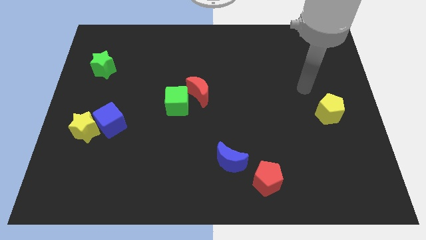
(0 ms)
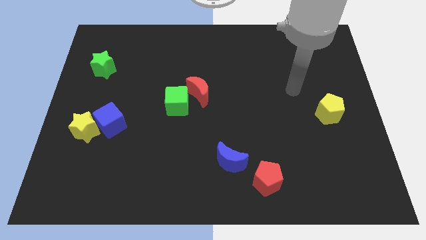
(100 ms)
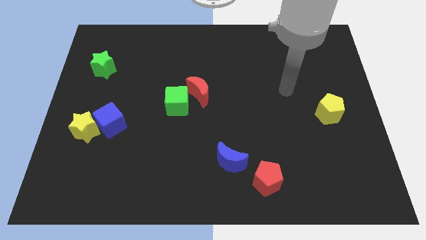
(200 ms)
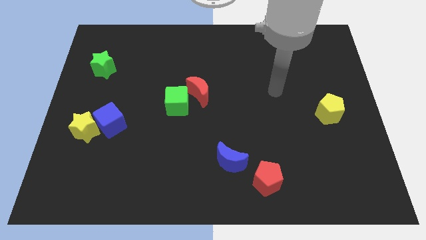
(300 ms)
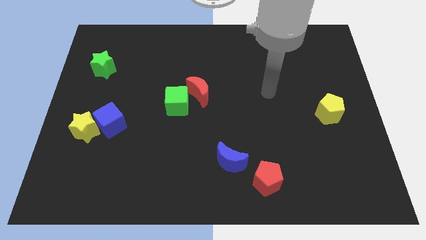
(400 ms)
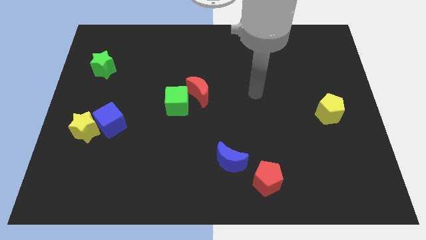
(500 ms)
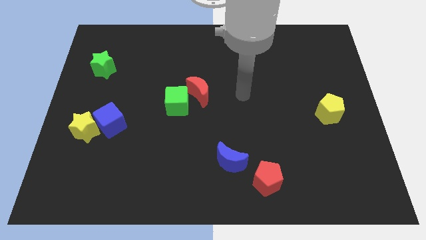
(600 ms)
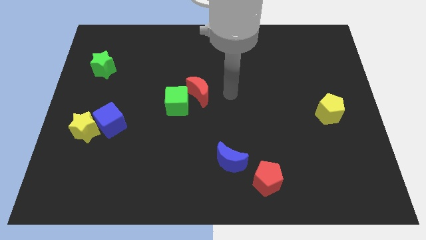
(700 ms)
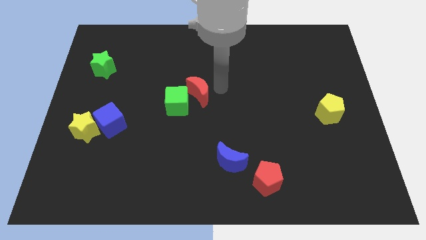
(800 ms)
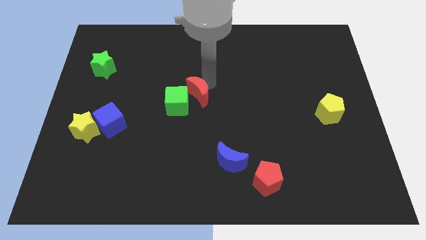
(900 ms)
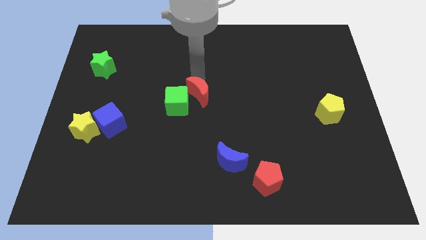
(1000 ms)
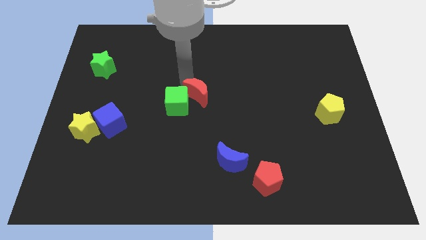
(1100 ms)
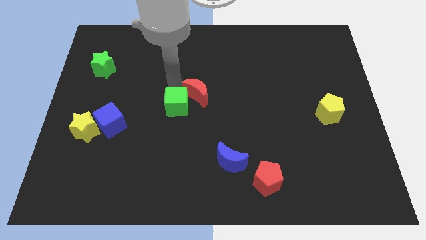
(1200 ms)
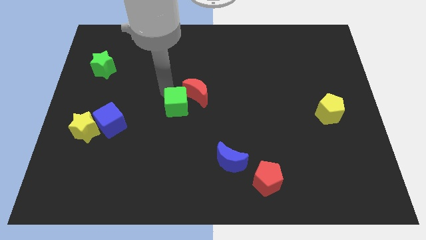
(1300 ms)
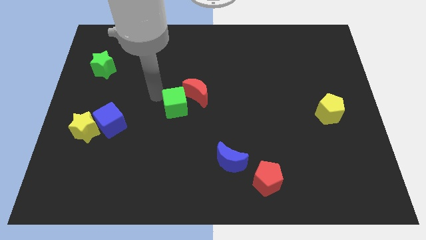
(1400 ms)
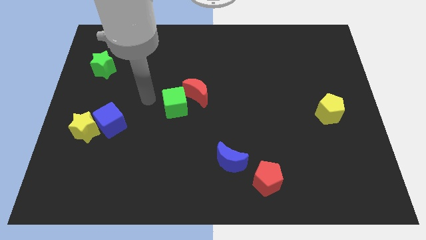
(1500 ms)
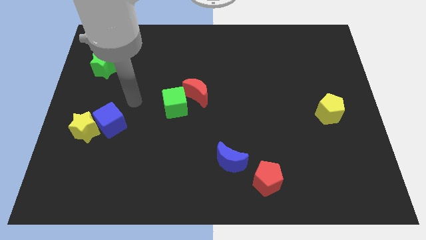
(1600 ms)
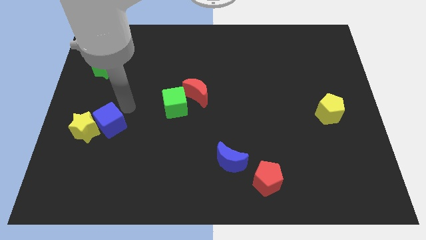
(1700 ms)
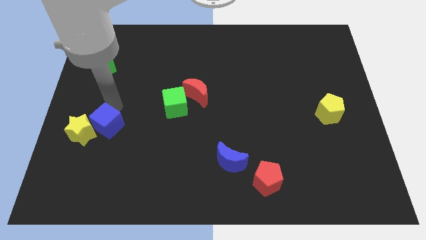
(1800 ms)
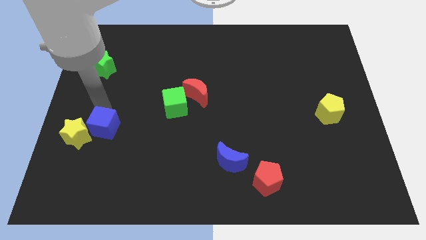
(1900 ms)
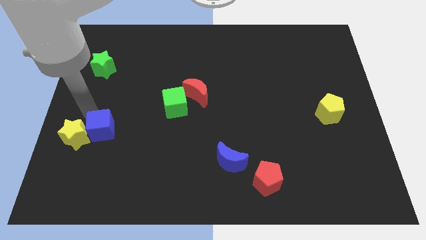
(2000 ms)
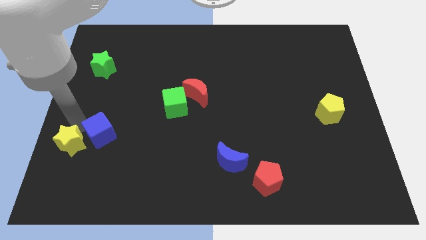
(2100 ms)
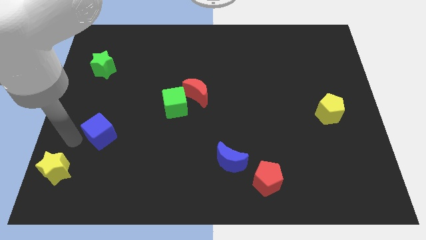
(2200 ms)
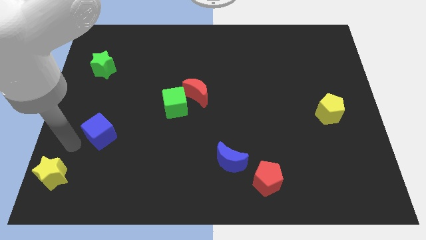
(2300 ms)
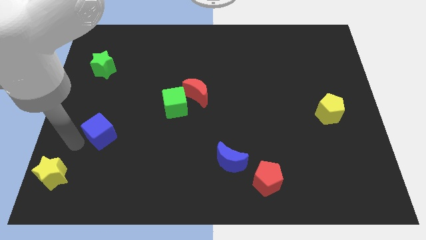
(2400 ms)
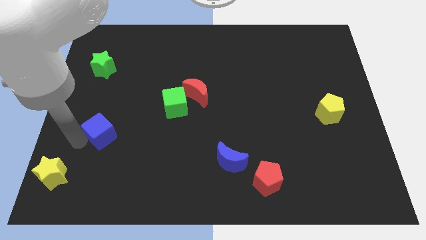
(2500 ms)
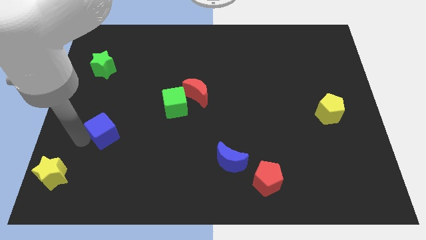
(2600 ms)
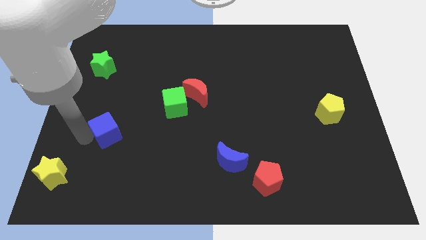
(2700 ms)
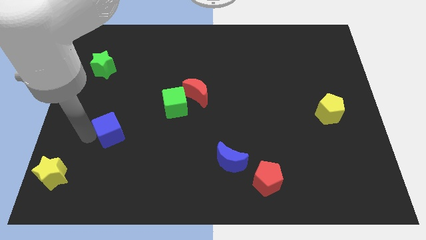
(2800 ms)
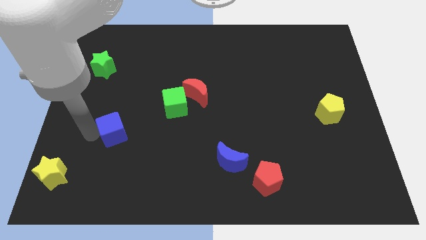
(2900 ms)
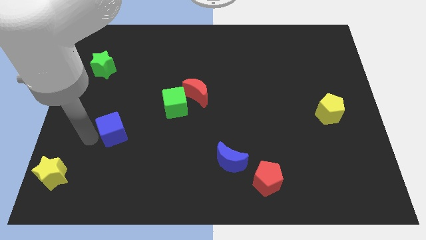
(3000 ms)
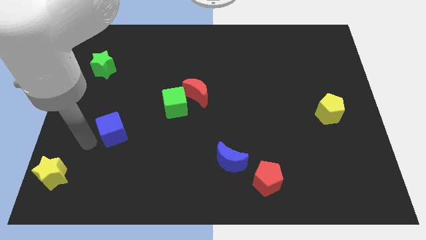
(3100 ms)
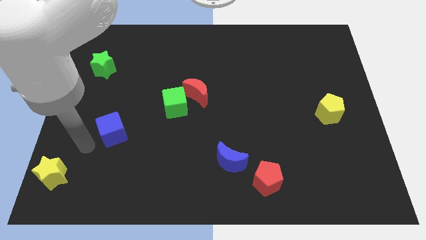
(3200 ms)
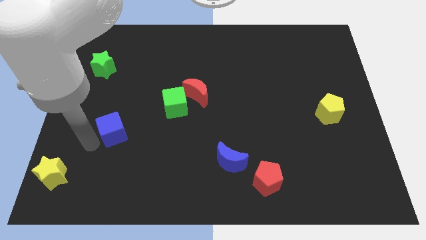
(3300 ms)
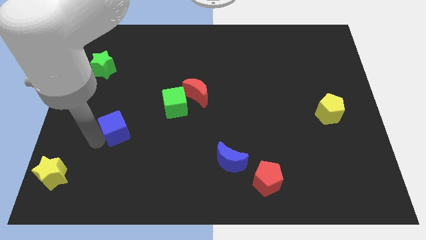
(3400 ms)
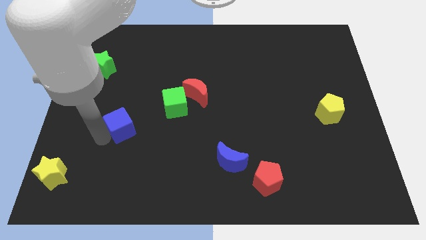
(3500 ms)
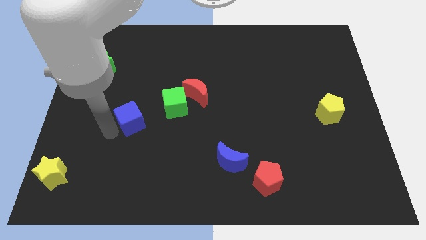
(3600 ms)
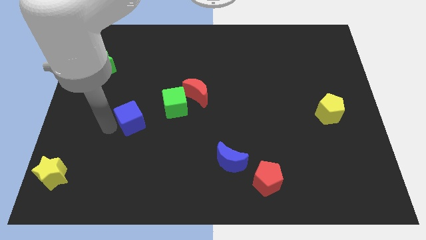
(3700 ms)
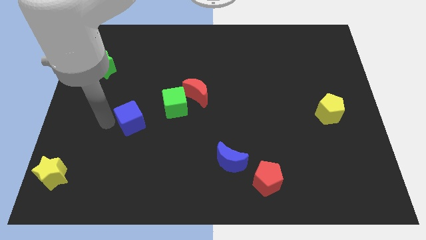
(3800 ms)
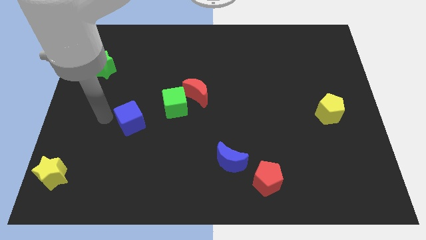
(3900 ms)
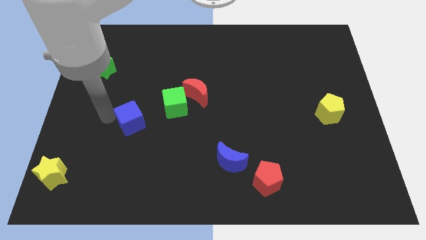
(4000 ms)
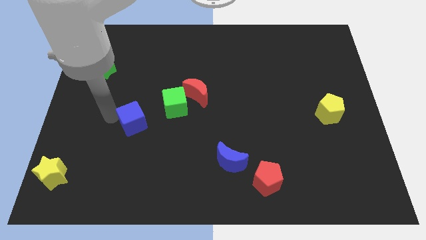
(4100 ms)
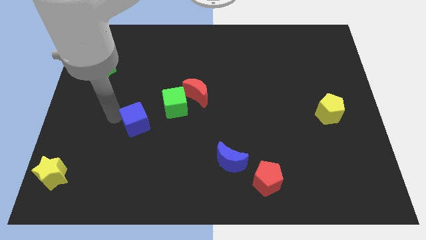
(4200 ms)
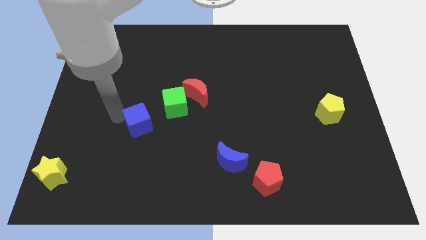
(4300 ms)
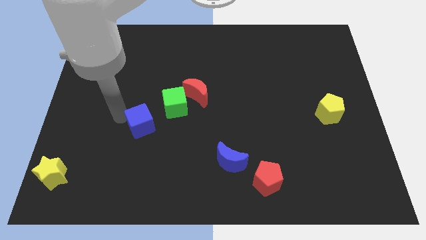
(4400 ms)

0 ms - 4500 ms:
slide the blue cube slightly to the right

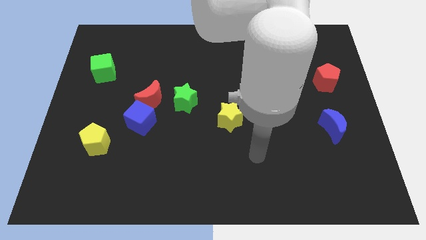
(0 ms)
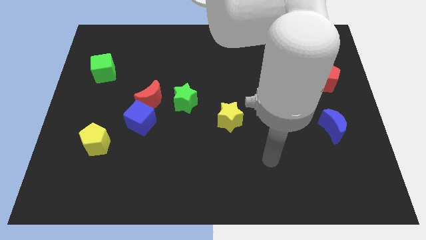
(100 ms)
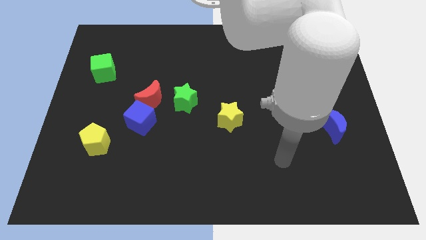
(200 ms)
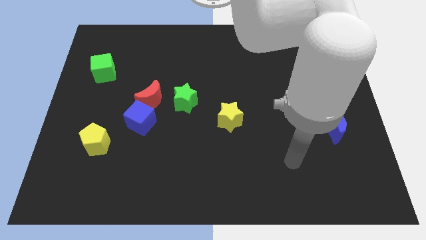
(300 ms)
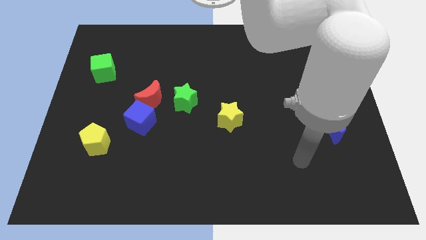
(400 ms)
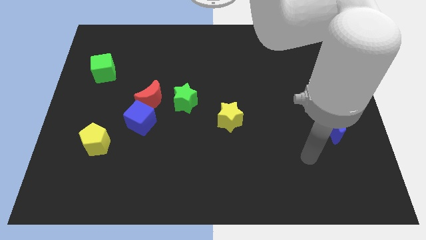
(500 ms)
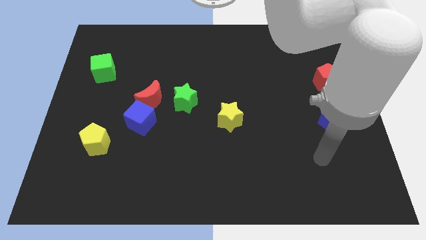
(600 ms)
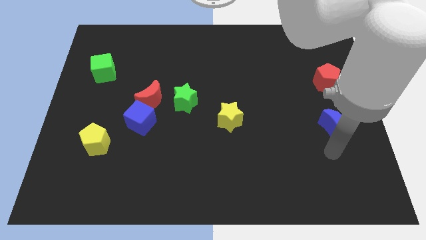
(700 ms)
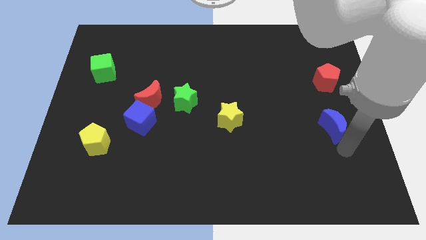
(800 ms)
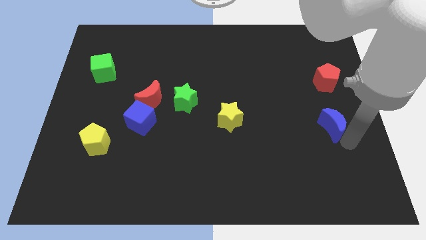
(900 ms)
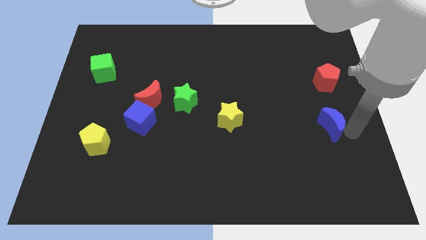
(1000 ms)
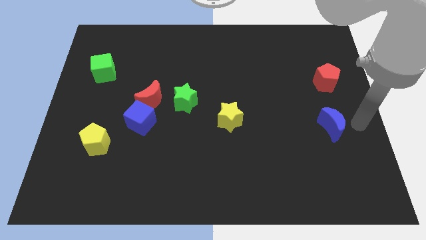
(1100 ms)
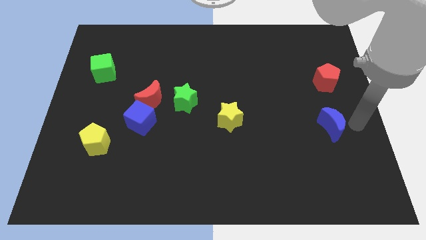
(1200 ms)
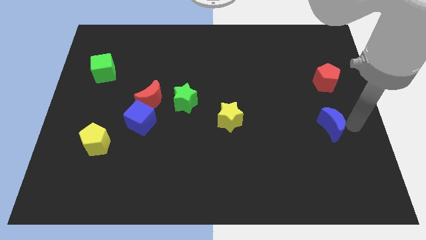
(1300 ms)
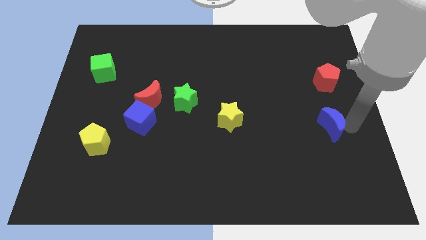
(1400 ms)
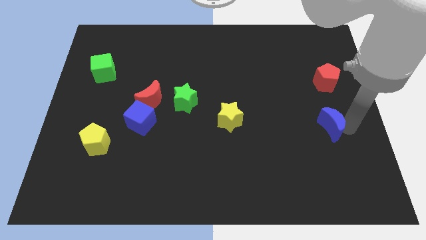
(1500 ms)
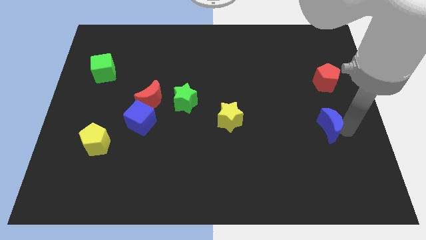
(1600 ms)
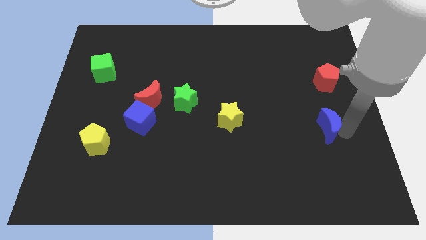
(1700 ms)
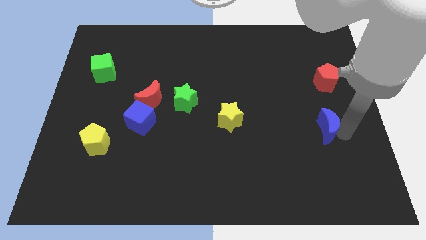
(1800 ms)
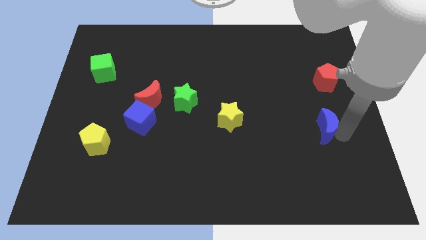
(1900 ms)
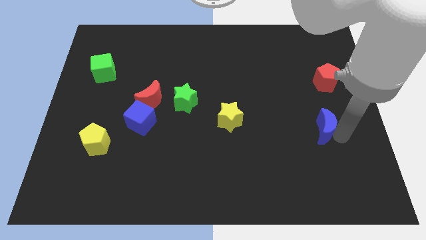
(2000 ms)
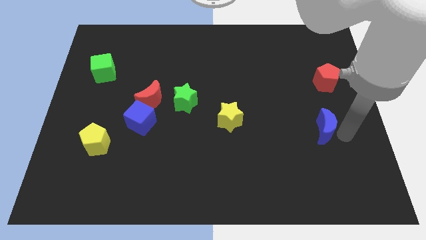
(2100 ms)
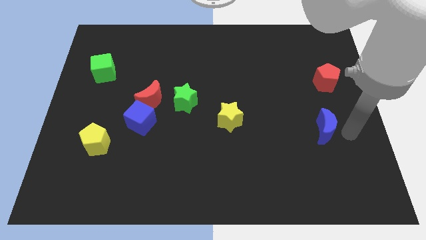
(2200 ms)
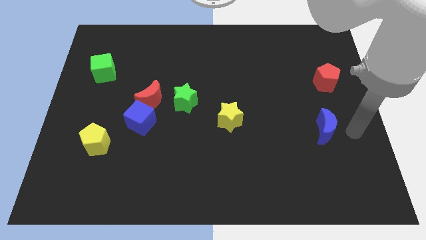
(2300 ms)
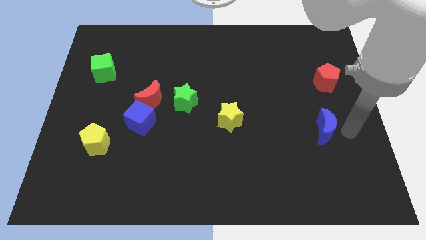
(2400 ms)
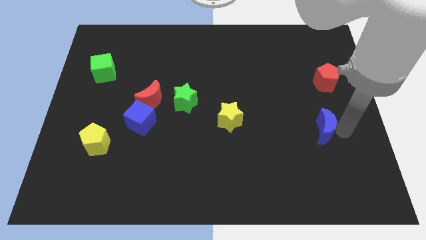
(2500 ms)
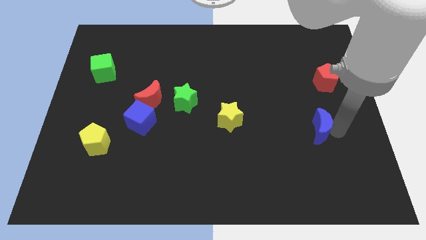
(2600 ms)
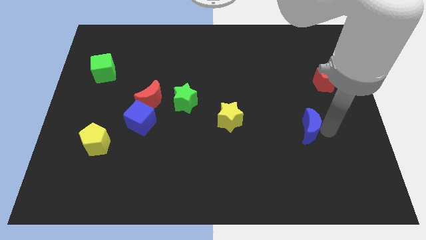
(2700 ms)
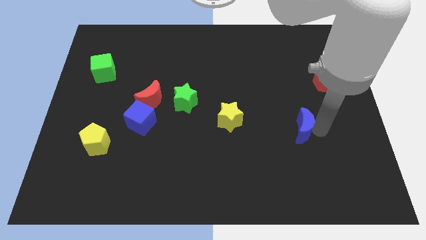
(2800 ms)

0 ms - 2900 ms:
slightly push the blue moon to the left

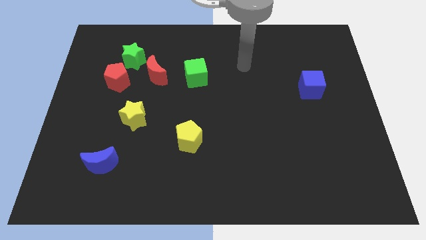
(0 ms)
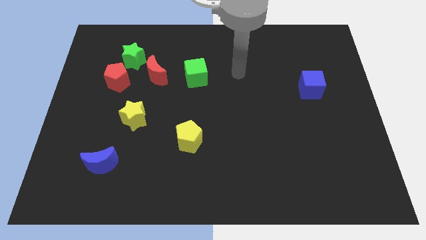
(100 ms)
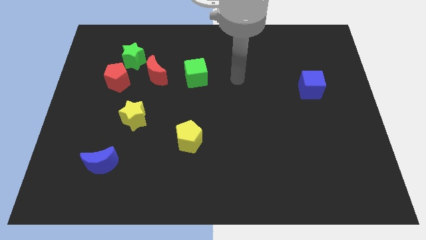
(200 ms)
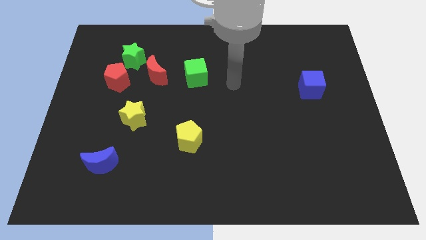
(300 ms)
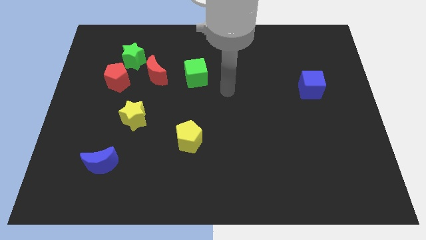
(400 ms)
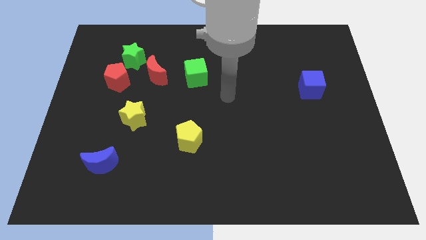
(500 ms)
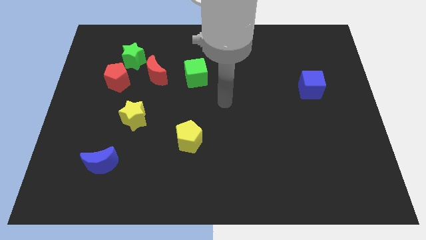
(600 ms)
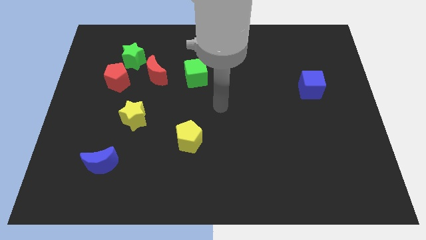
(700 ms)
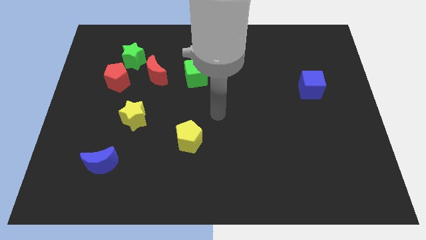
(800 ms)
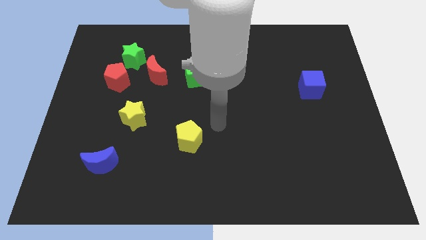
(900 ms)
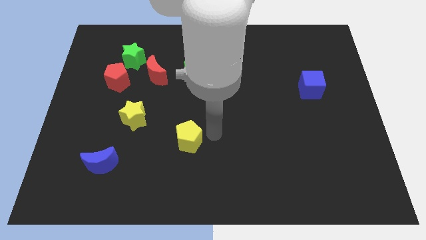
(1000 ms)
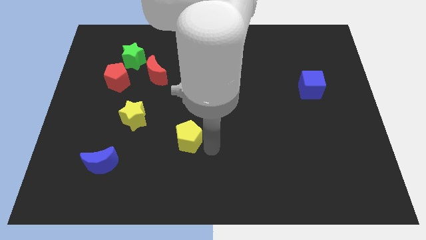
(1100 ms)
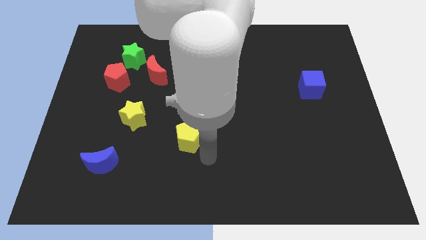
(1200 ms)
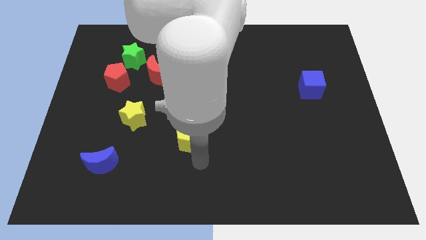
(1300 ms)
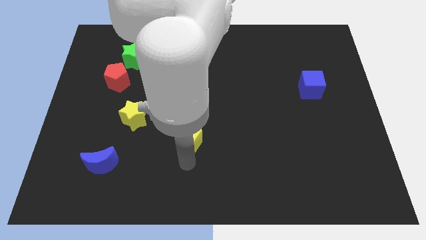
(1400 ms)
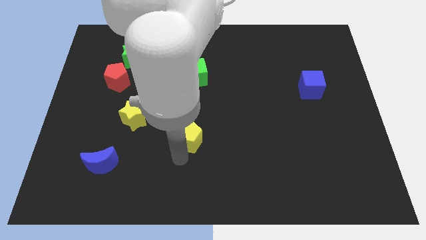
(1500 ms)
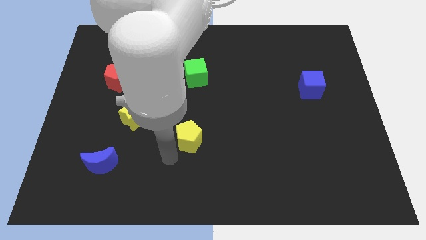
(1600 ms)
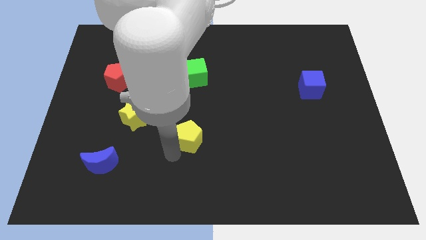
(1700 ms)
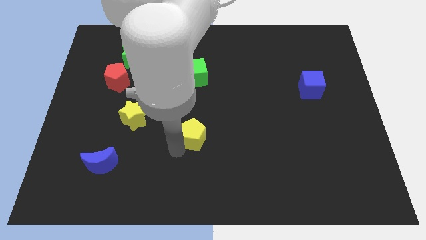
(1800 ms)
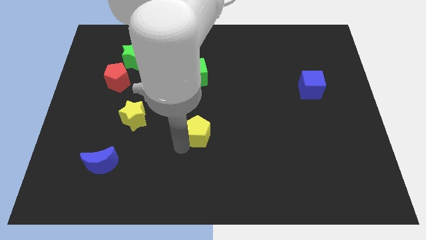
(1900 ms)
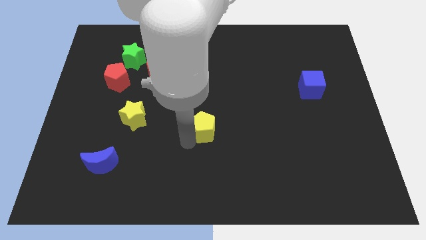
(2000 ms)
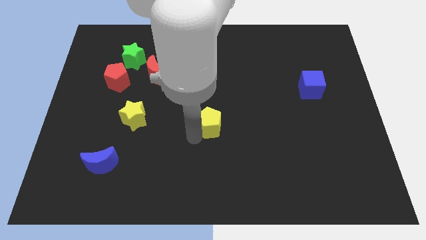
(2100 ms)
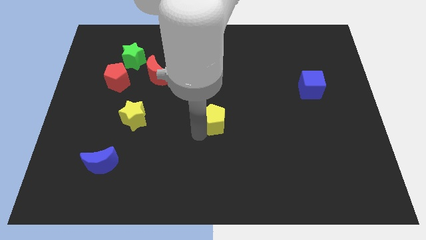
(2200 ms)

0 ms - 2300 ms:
slightly move the yellow pentagon up and then to the right
